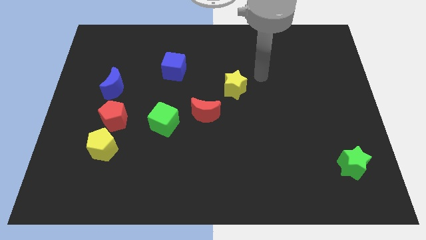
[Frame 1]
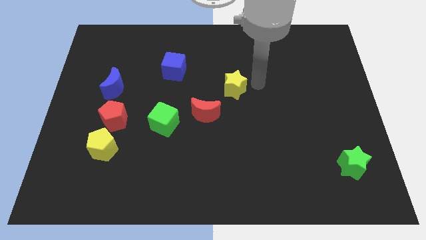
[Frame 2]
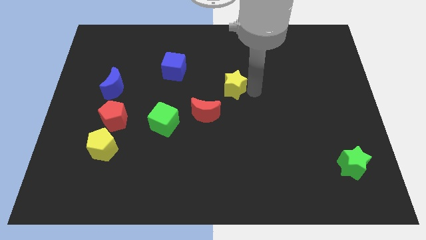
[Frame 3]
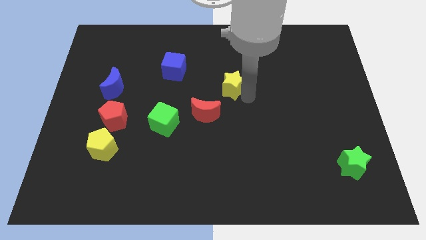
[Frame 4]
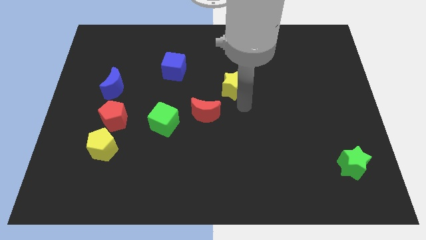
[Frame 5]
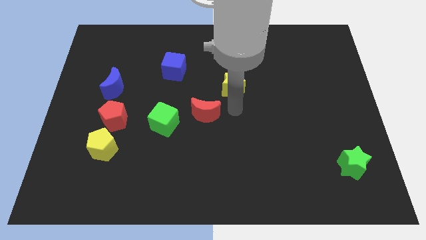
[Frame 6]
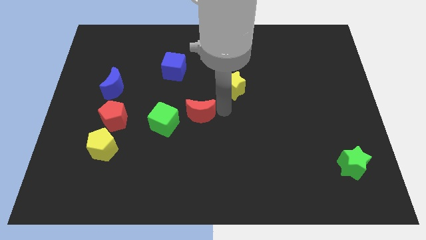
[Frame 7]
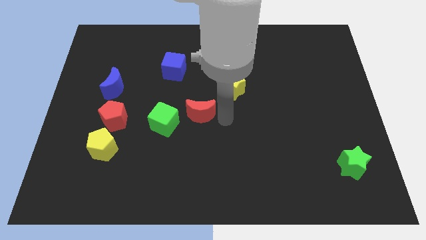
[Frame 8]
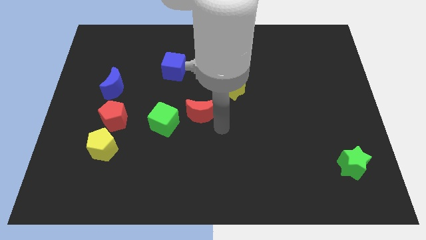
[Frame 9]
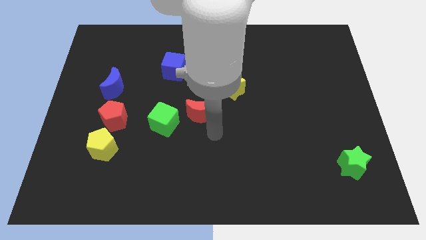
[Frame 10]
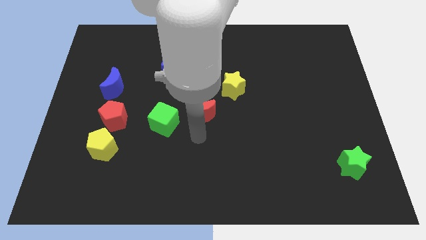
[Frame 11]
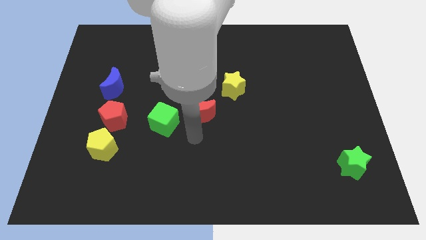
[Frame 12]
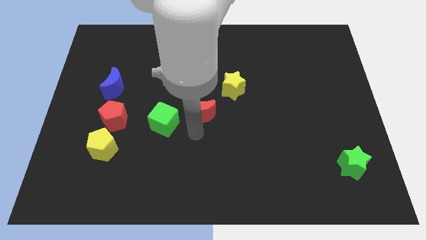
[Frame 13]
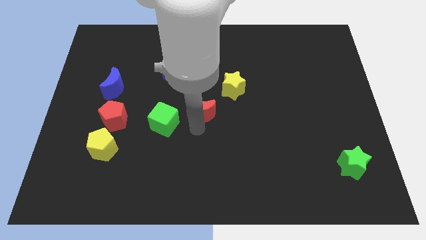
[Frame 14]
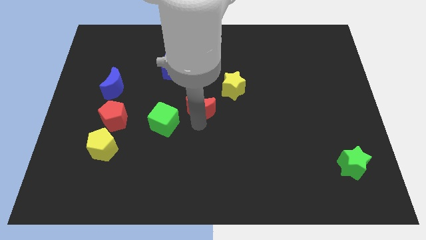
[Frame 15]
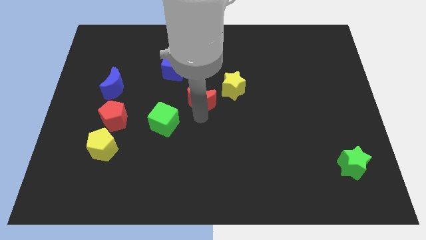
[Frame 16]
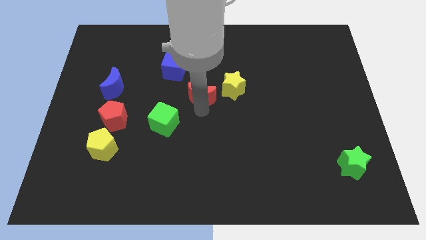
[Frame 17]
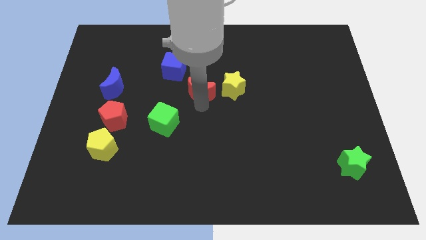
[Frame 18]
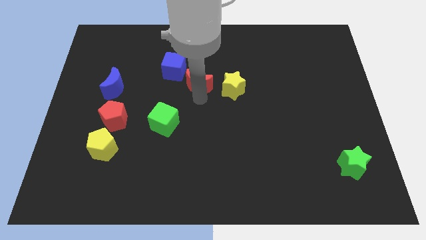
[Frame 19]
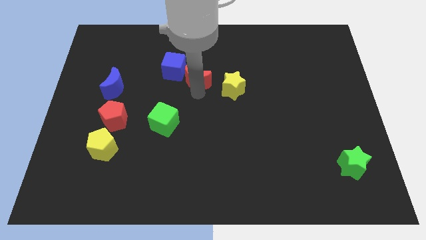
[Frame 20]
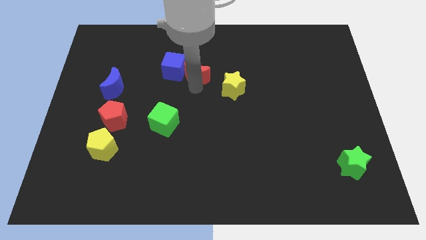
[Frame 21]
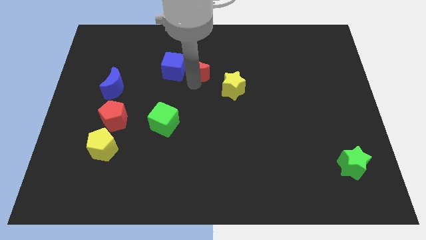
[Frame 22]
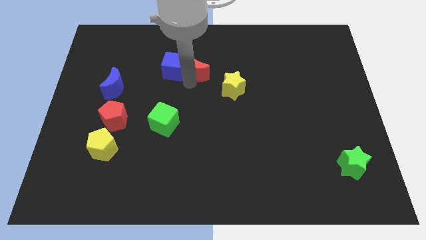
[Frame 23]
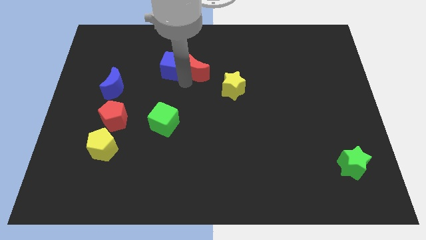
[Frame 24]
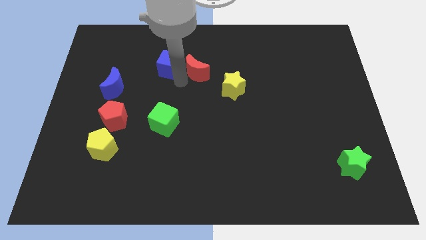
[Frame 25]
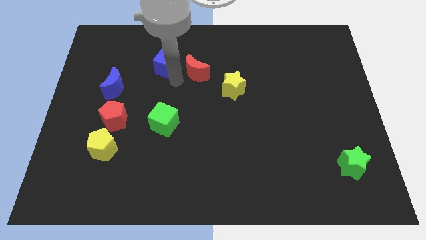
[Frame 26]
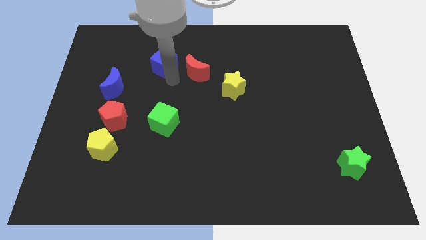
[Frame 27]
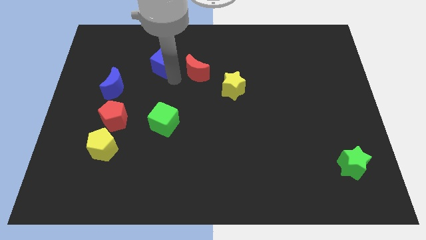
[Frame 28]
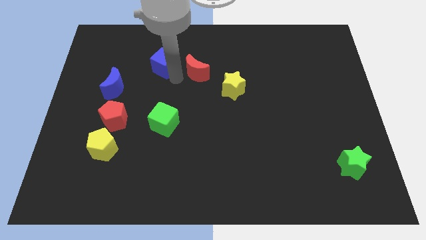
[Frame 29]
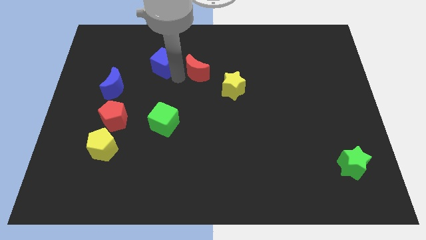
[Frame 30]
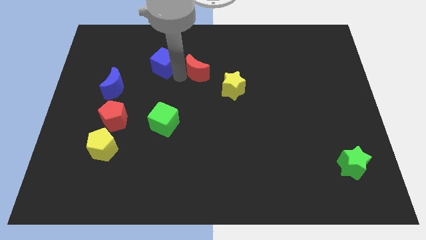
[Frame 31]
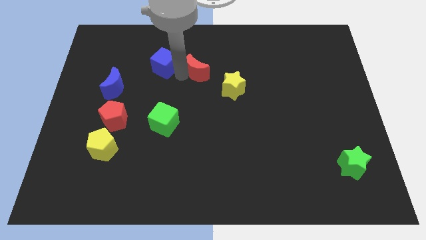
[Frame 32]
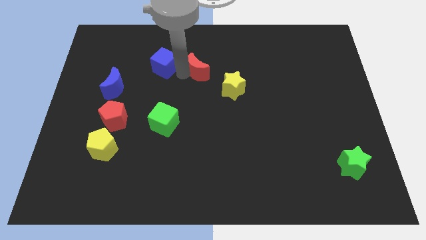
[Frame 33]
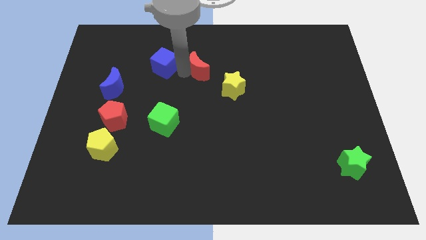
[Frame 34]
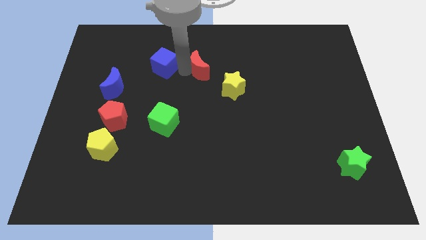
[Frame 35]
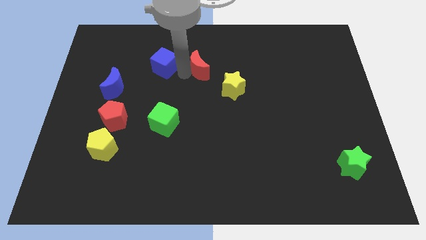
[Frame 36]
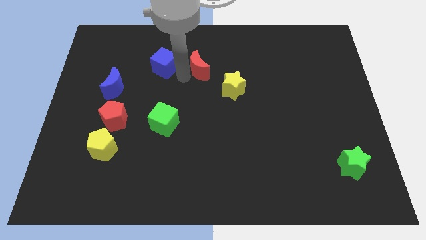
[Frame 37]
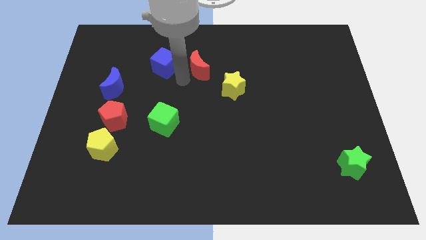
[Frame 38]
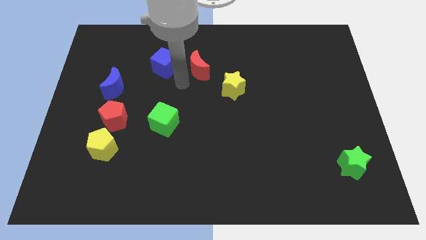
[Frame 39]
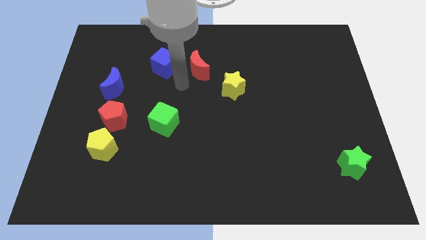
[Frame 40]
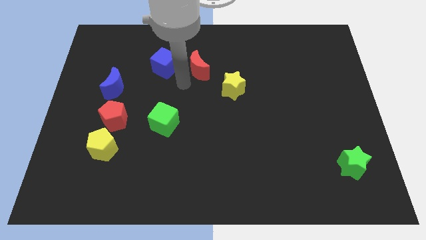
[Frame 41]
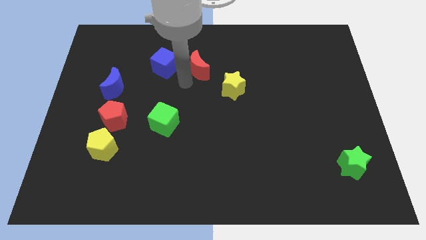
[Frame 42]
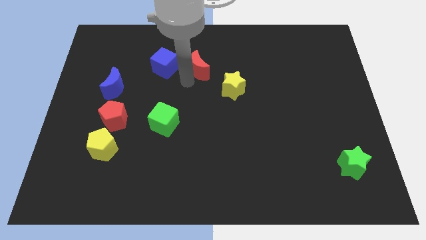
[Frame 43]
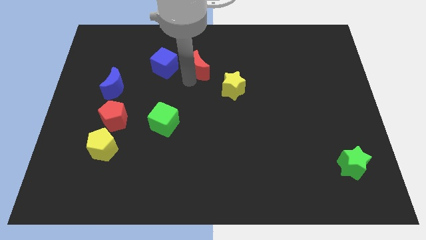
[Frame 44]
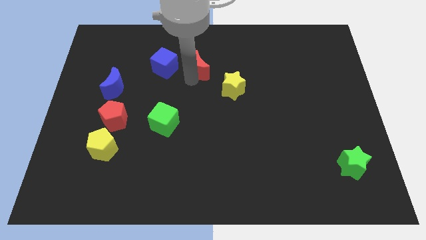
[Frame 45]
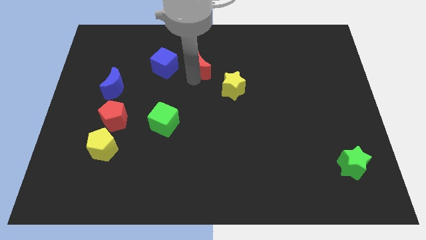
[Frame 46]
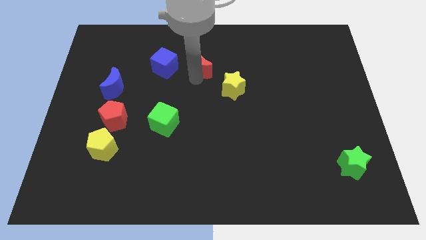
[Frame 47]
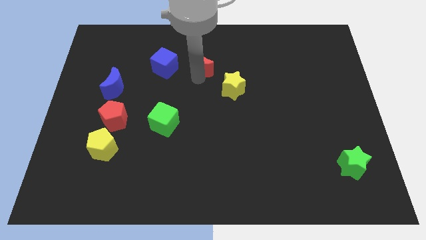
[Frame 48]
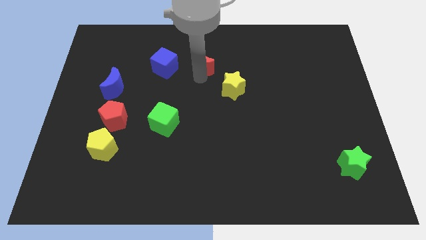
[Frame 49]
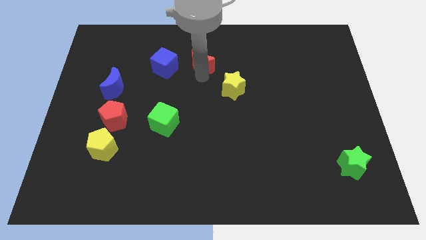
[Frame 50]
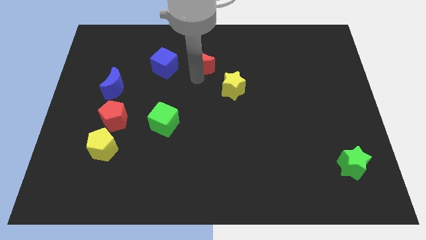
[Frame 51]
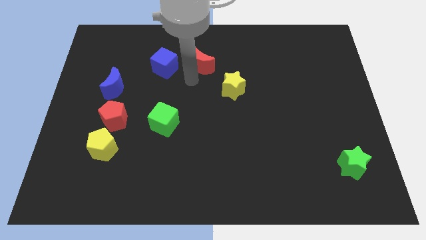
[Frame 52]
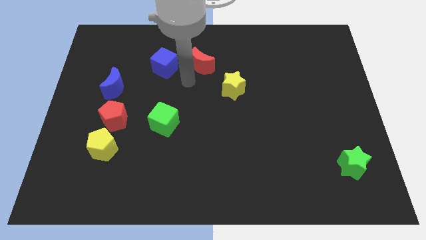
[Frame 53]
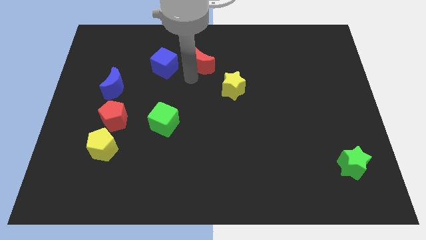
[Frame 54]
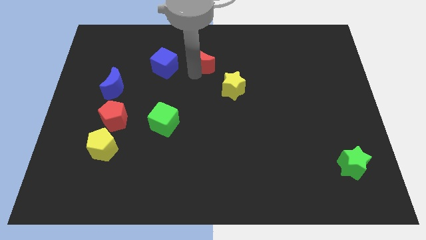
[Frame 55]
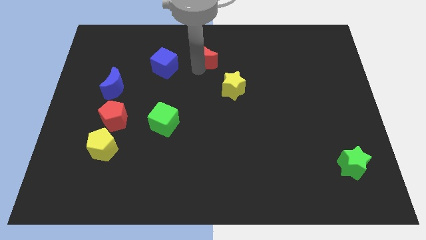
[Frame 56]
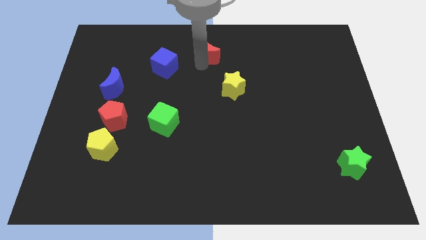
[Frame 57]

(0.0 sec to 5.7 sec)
move the red moon to the top side
